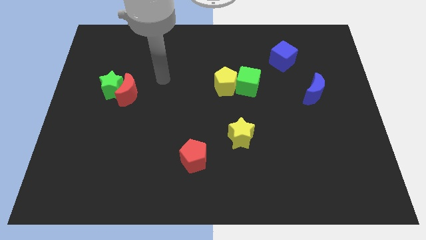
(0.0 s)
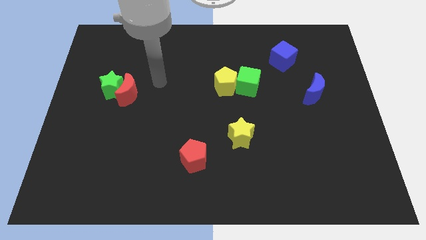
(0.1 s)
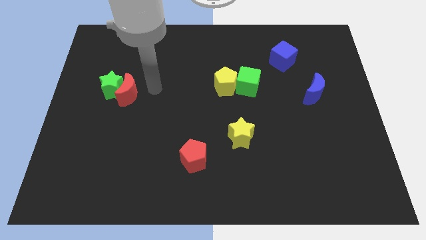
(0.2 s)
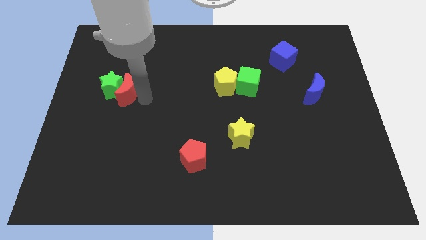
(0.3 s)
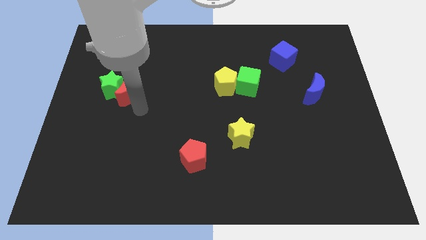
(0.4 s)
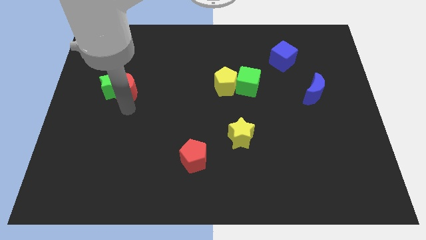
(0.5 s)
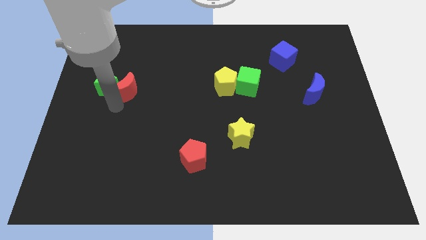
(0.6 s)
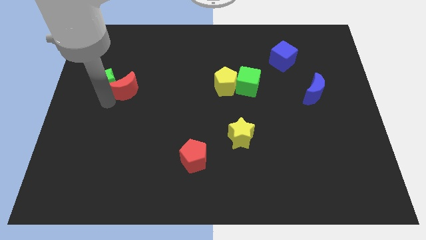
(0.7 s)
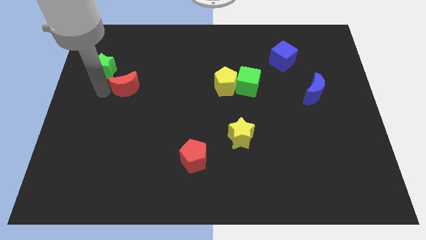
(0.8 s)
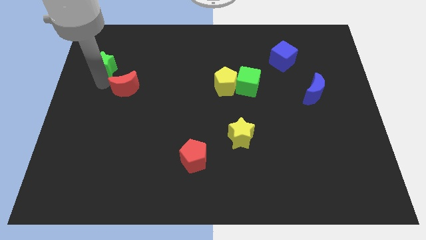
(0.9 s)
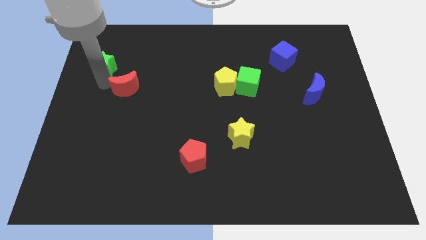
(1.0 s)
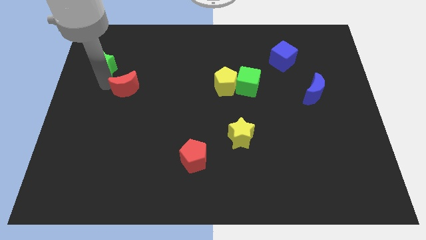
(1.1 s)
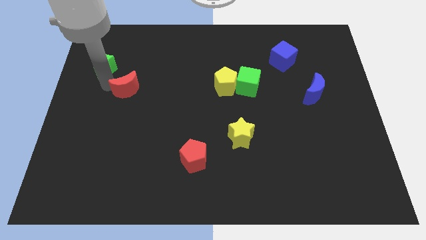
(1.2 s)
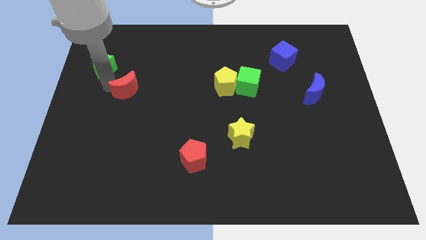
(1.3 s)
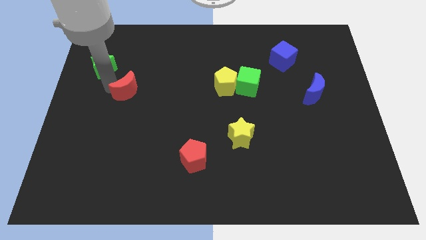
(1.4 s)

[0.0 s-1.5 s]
move the red moon away from the green star

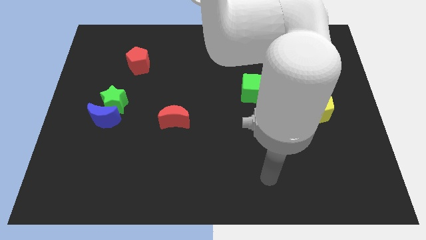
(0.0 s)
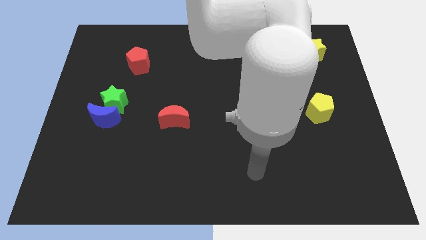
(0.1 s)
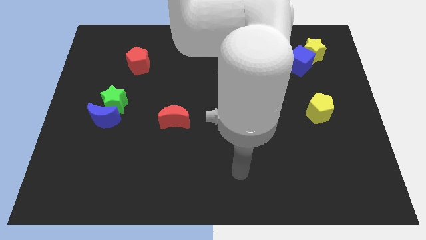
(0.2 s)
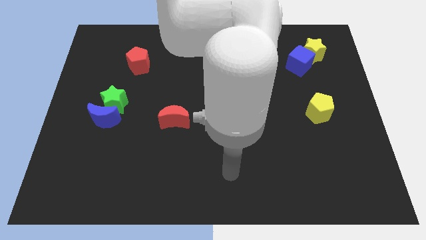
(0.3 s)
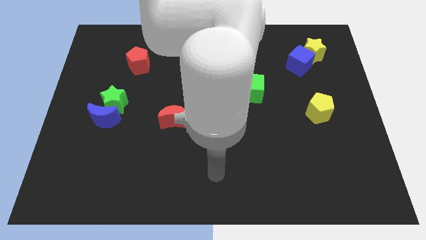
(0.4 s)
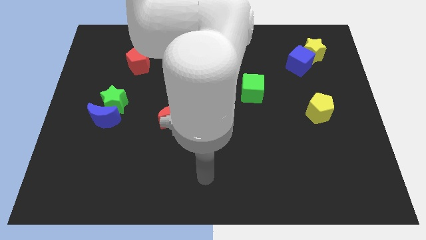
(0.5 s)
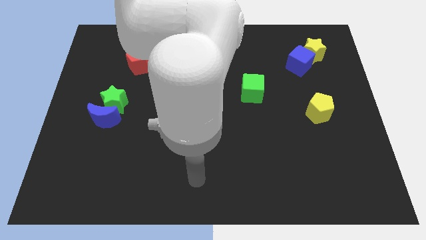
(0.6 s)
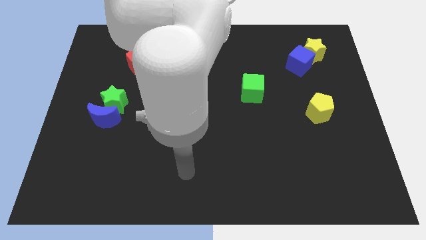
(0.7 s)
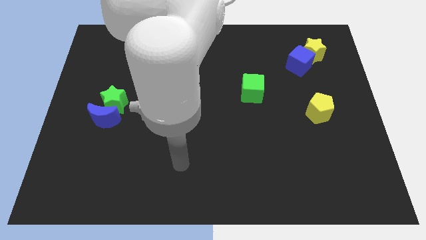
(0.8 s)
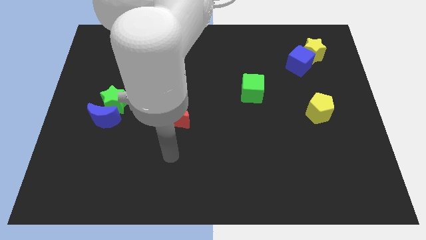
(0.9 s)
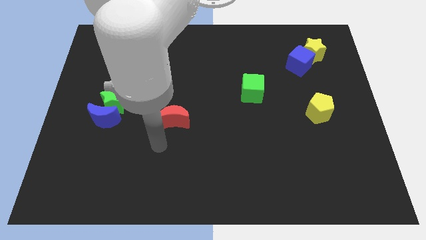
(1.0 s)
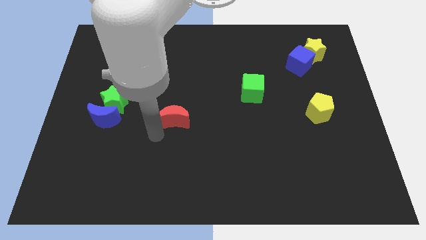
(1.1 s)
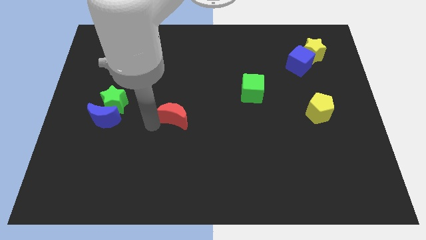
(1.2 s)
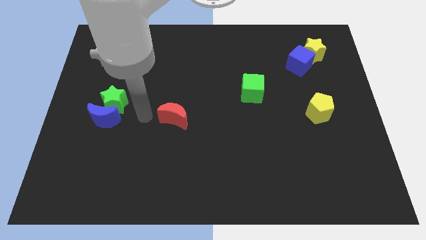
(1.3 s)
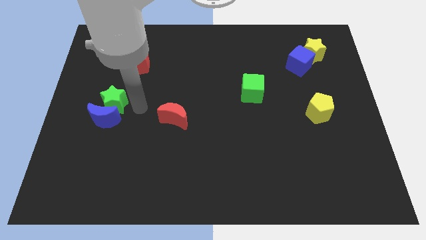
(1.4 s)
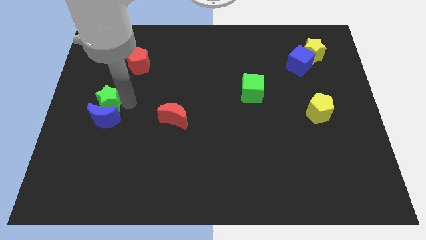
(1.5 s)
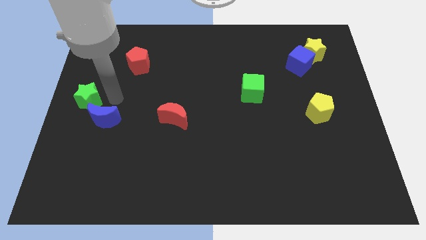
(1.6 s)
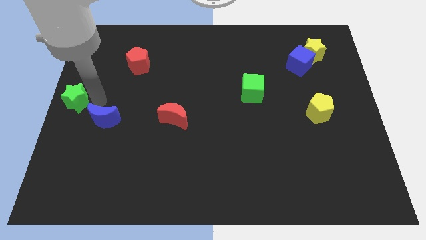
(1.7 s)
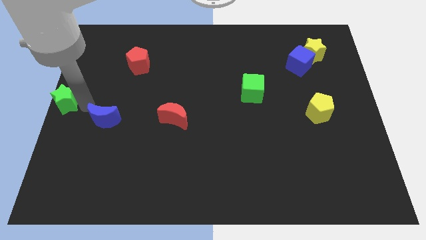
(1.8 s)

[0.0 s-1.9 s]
separate the blue moon from the green star

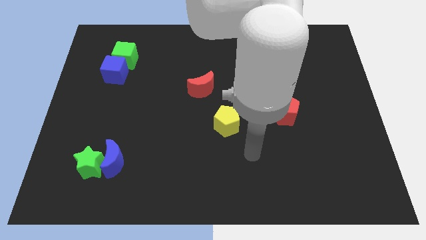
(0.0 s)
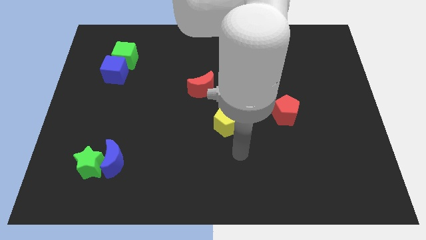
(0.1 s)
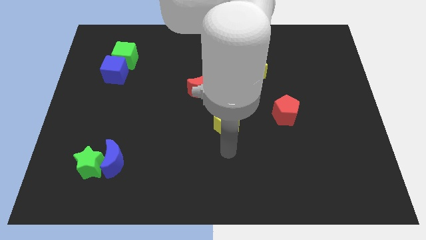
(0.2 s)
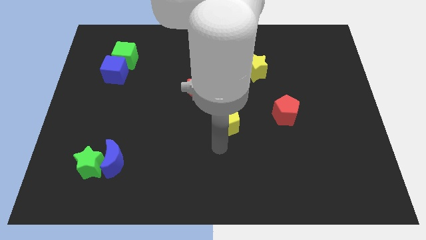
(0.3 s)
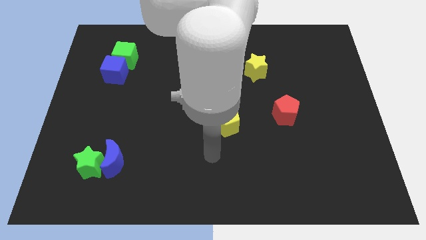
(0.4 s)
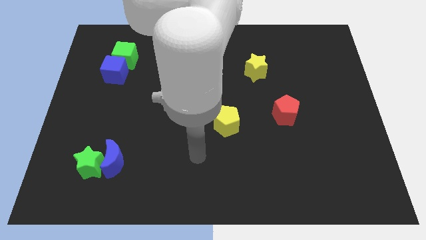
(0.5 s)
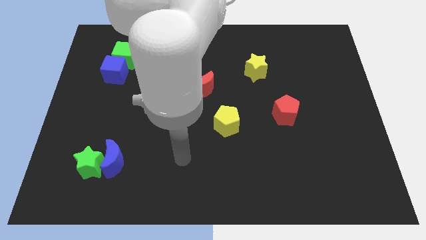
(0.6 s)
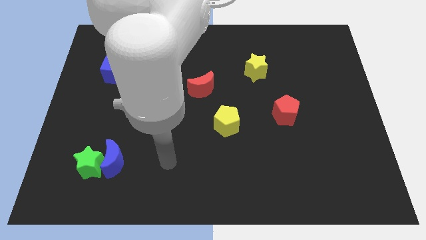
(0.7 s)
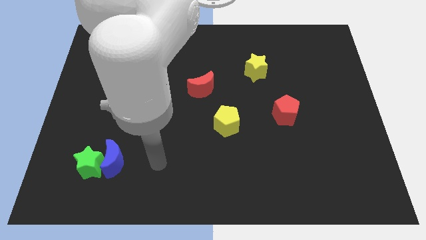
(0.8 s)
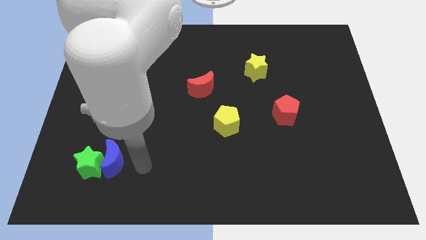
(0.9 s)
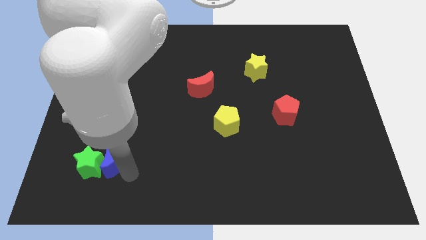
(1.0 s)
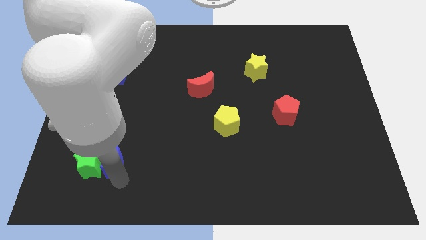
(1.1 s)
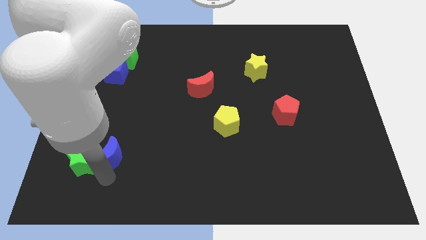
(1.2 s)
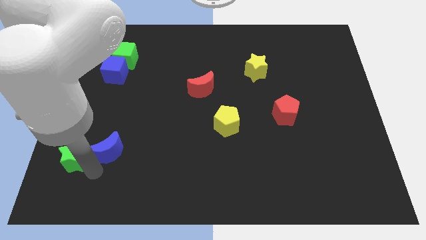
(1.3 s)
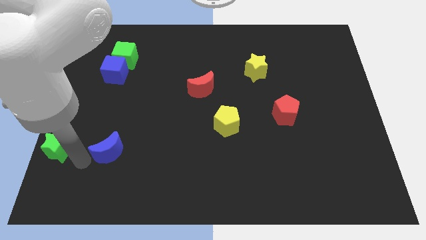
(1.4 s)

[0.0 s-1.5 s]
pull the blue moon apart from the green star

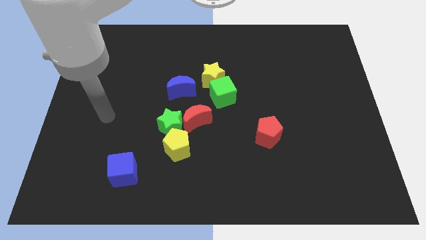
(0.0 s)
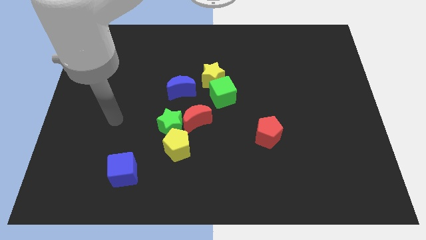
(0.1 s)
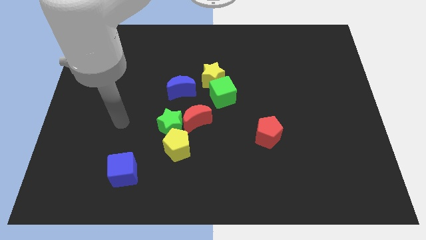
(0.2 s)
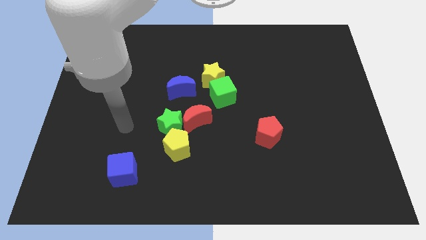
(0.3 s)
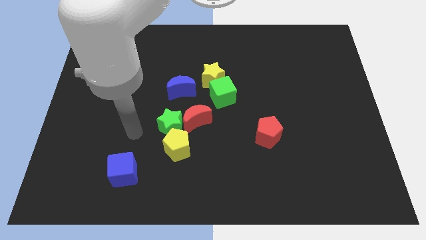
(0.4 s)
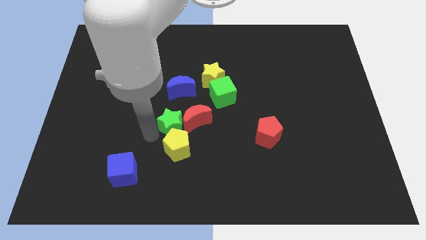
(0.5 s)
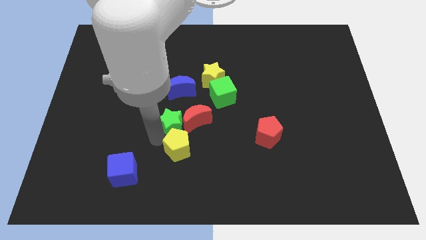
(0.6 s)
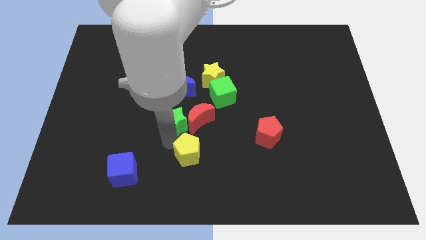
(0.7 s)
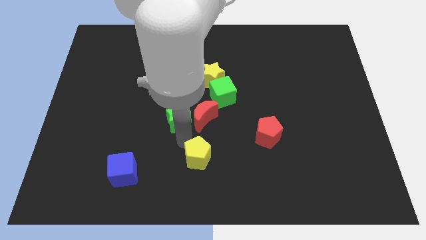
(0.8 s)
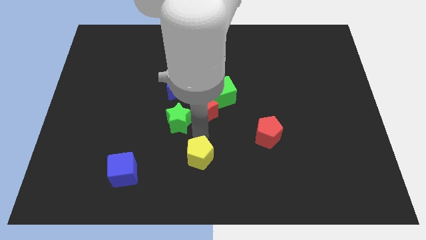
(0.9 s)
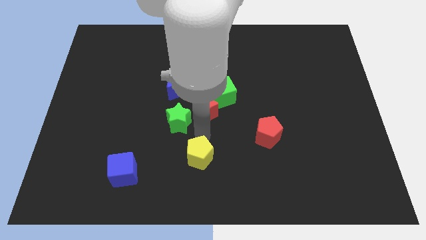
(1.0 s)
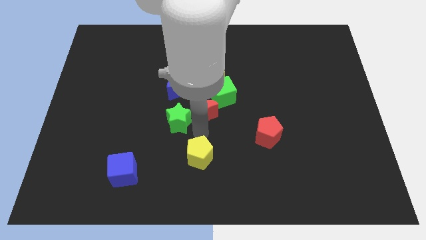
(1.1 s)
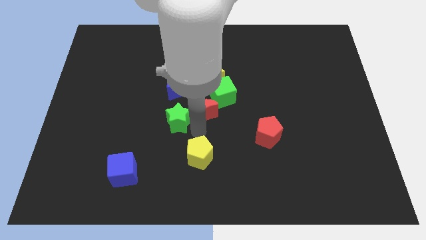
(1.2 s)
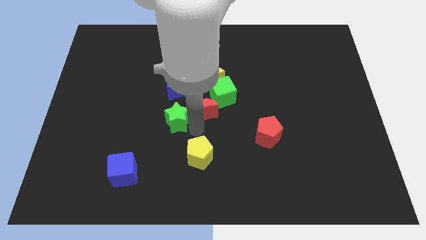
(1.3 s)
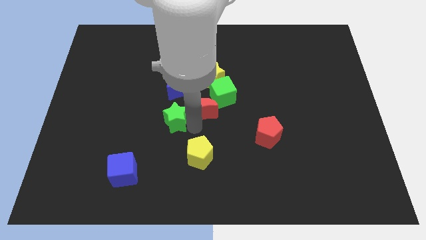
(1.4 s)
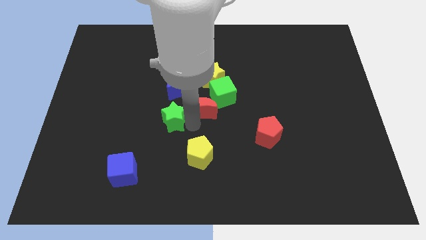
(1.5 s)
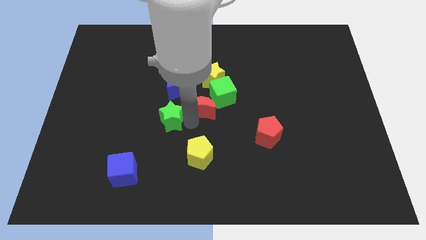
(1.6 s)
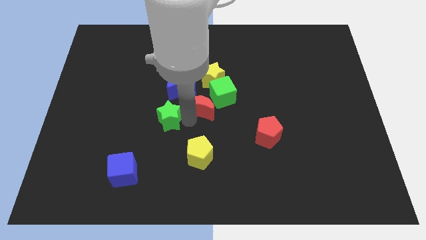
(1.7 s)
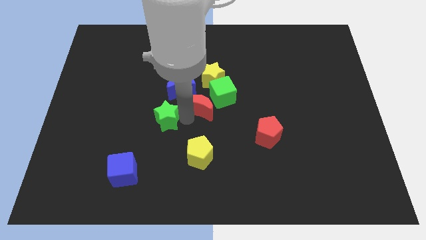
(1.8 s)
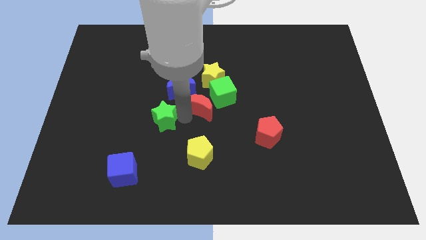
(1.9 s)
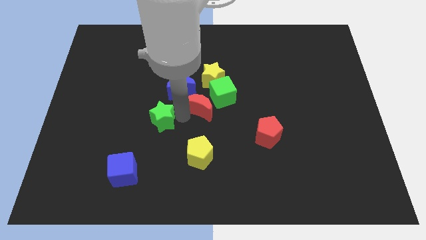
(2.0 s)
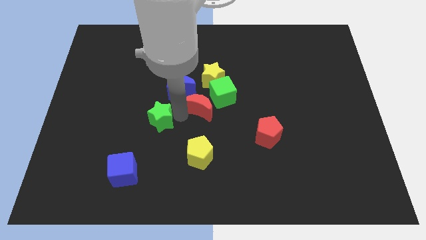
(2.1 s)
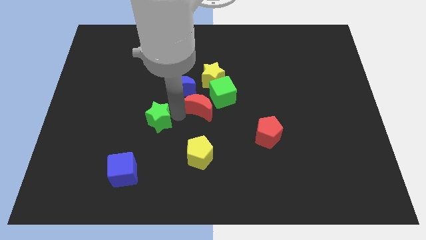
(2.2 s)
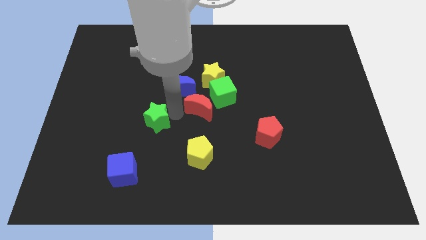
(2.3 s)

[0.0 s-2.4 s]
move the green star away from the red moon and yellow pentagon

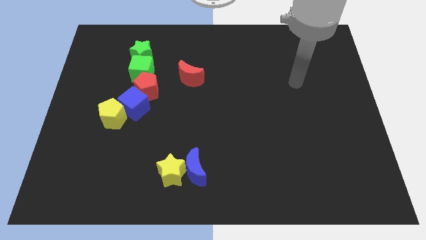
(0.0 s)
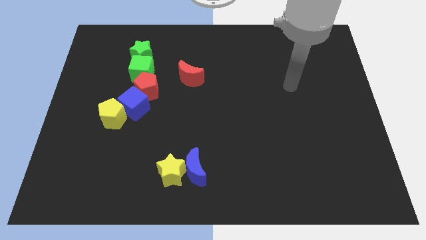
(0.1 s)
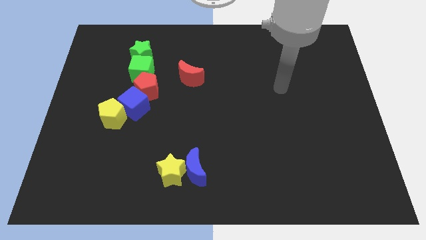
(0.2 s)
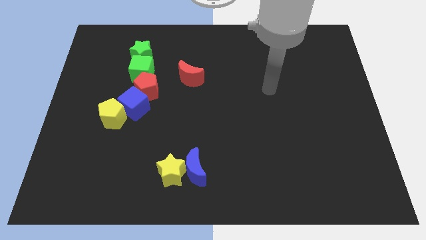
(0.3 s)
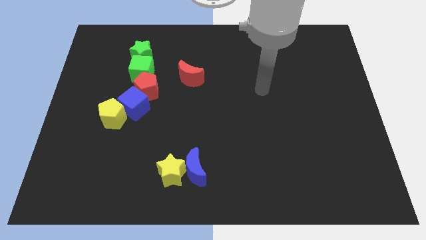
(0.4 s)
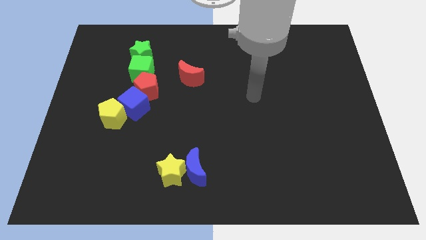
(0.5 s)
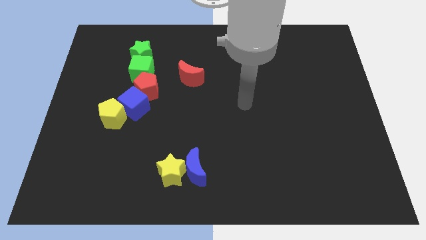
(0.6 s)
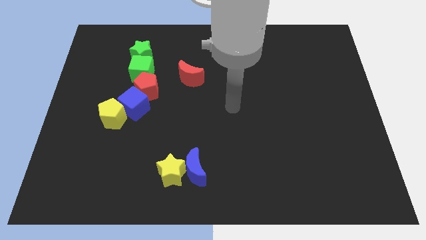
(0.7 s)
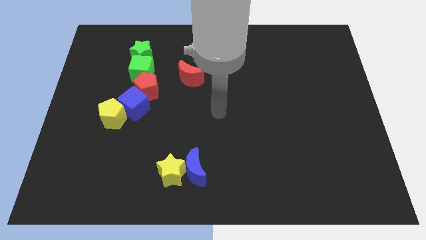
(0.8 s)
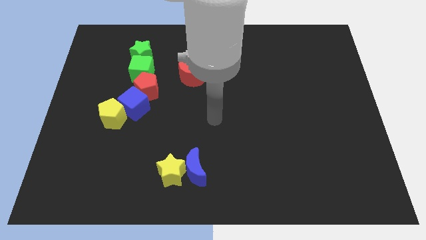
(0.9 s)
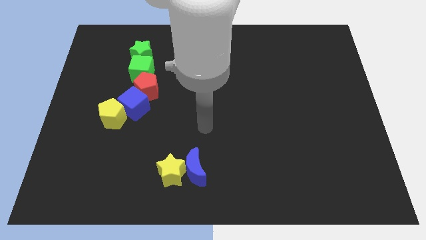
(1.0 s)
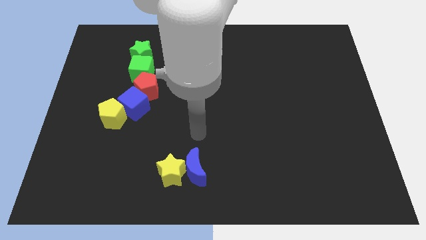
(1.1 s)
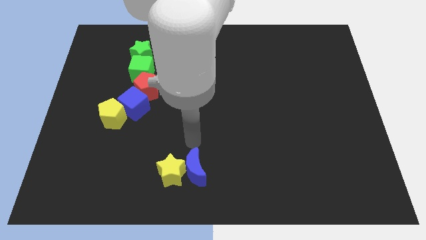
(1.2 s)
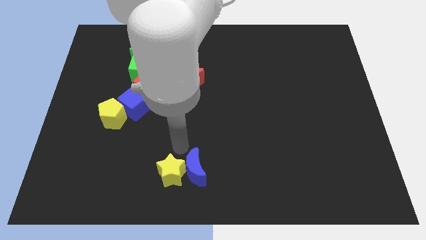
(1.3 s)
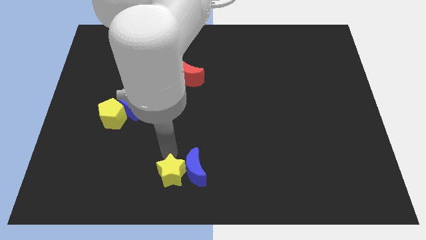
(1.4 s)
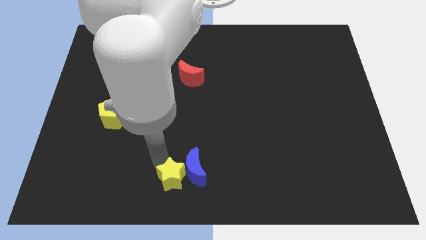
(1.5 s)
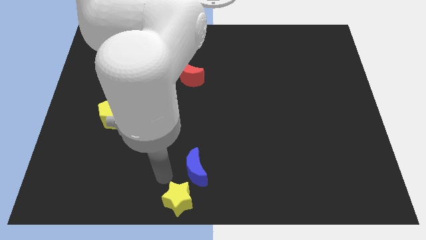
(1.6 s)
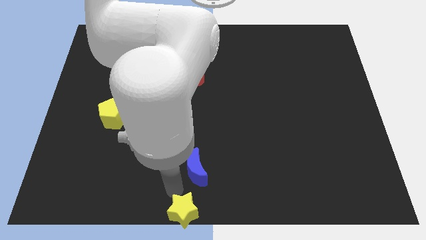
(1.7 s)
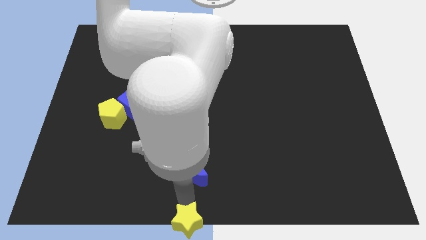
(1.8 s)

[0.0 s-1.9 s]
separate the blue moon from the yellow star

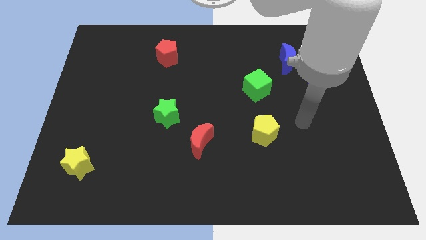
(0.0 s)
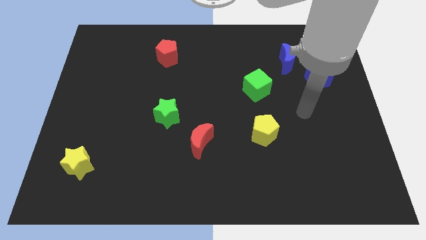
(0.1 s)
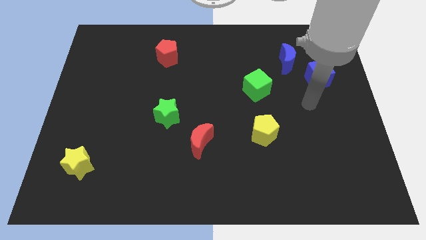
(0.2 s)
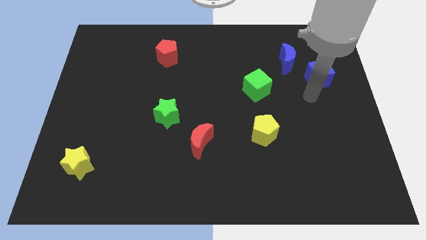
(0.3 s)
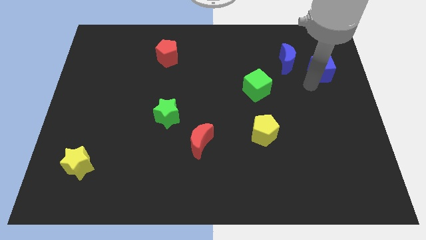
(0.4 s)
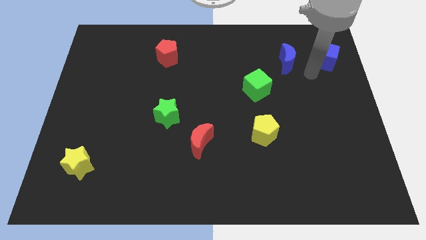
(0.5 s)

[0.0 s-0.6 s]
move the blue moon away from the blue cube
